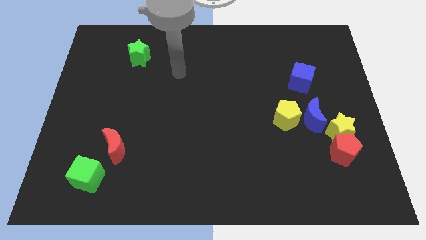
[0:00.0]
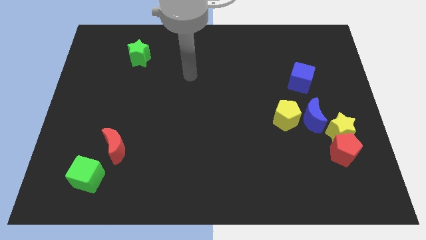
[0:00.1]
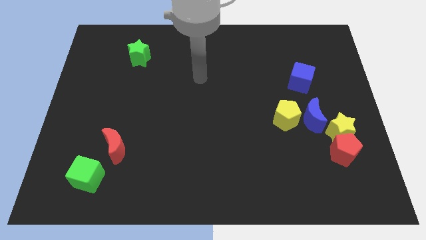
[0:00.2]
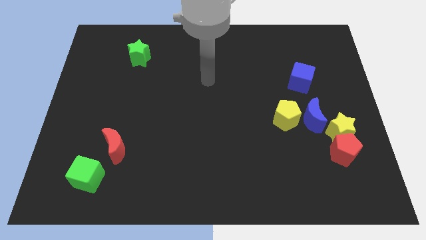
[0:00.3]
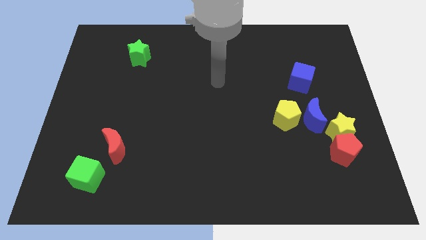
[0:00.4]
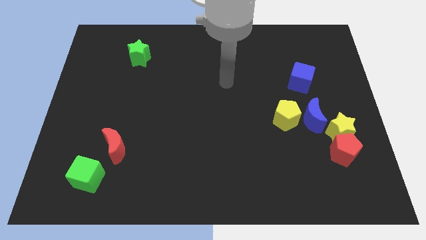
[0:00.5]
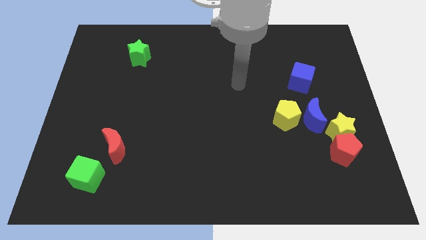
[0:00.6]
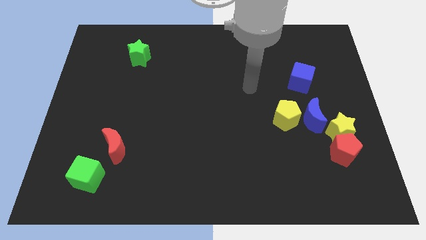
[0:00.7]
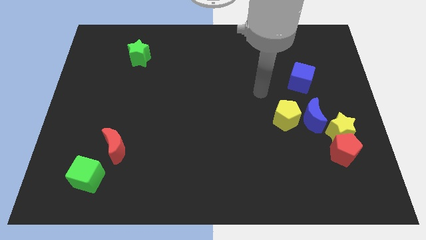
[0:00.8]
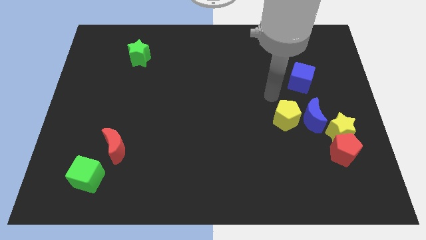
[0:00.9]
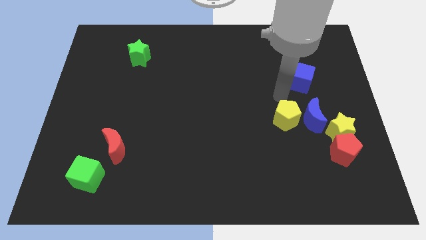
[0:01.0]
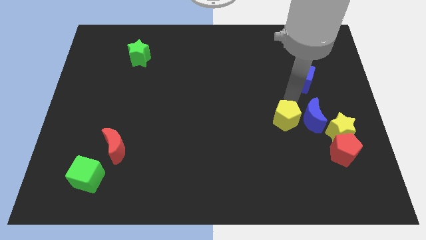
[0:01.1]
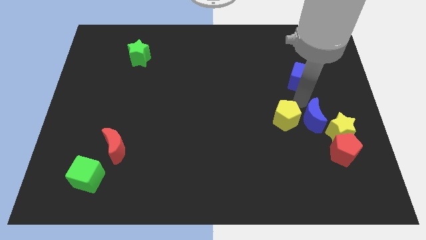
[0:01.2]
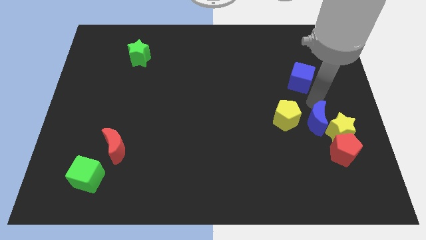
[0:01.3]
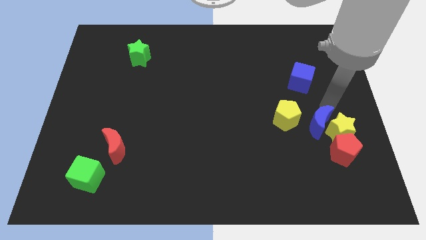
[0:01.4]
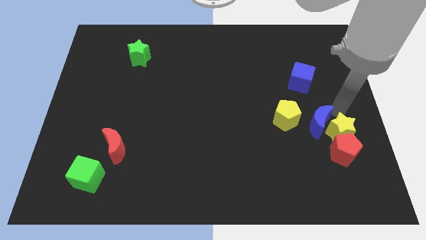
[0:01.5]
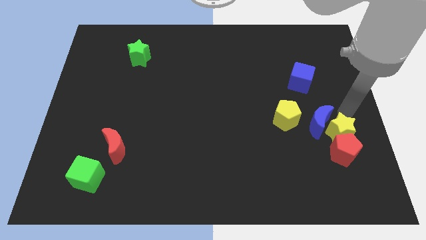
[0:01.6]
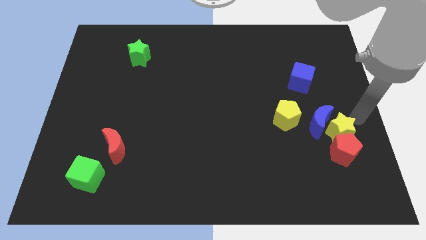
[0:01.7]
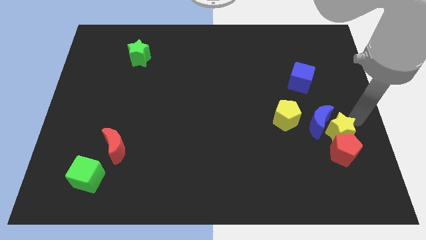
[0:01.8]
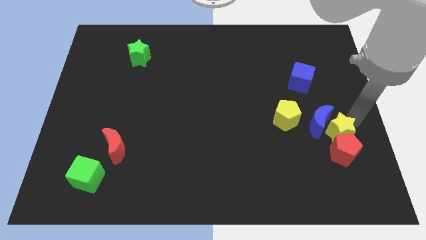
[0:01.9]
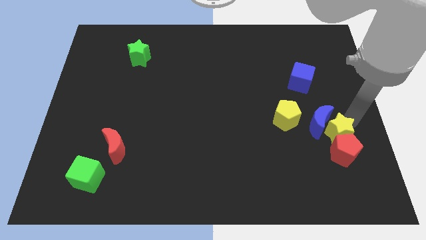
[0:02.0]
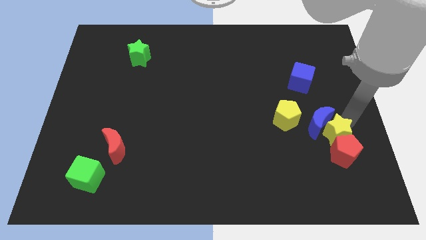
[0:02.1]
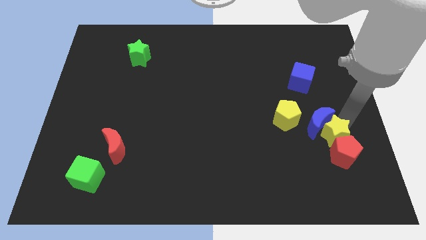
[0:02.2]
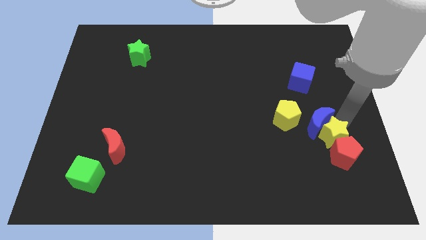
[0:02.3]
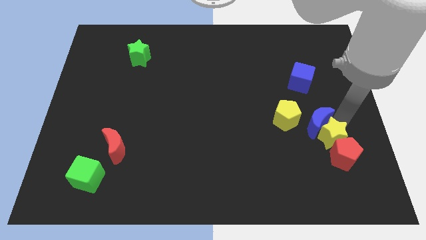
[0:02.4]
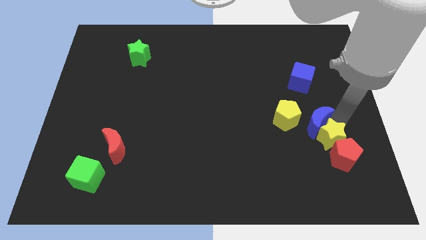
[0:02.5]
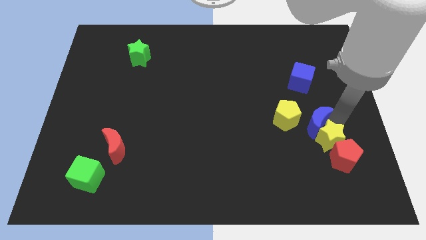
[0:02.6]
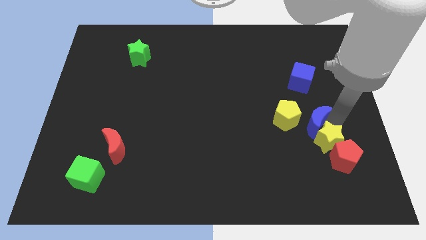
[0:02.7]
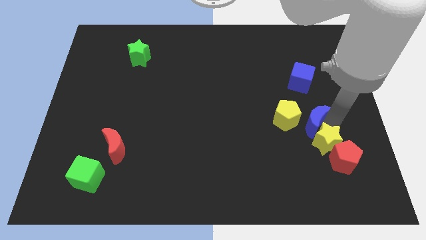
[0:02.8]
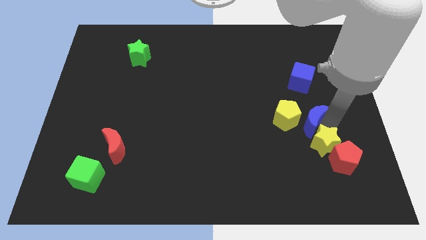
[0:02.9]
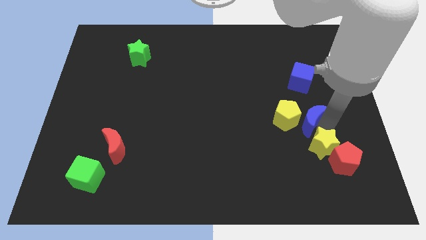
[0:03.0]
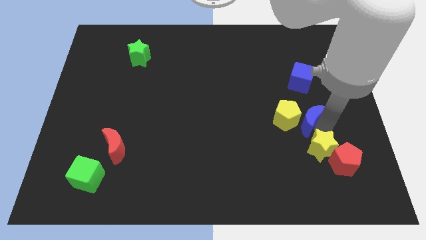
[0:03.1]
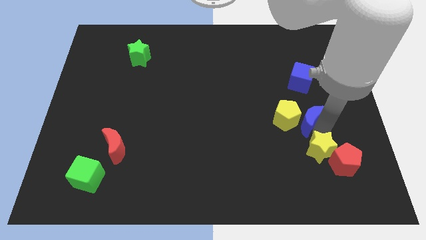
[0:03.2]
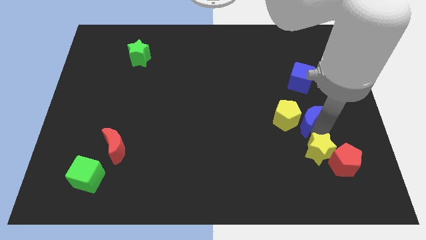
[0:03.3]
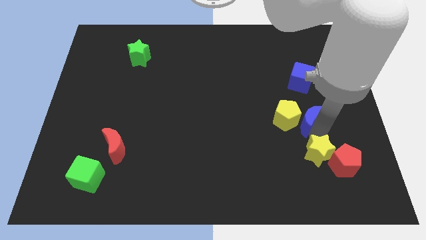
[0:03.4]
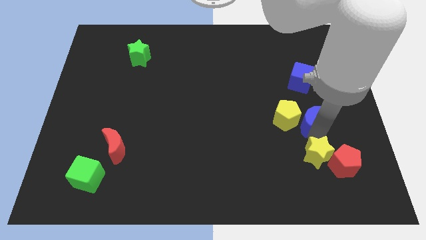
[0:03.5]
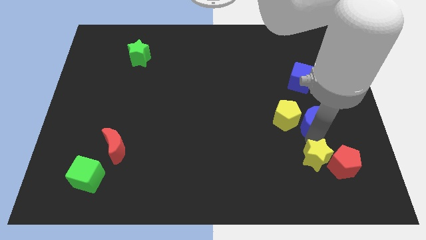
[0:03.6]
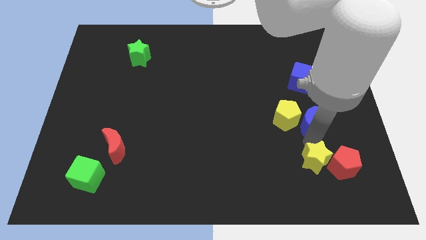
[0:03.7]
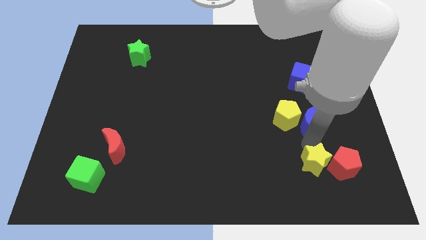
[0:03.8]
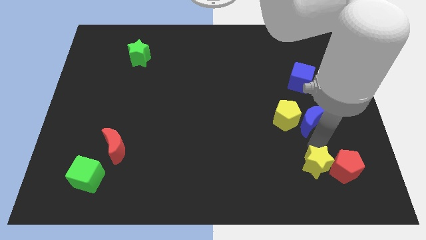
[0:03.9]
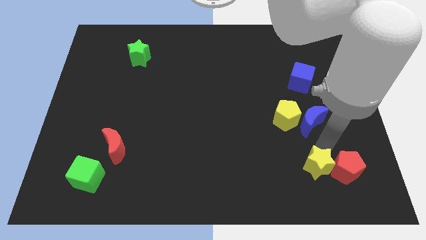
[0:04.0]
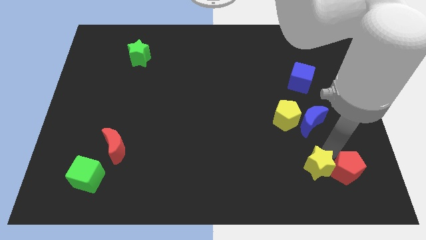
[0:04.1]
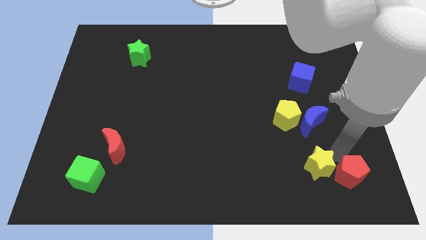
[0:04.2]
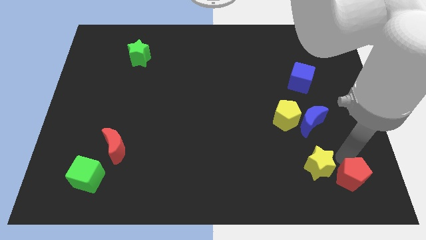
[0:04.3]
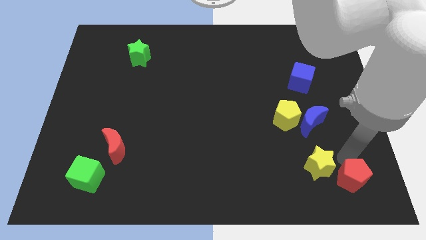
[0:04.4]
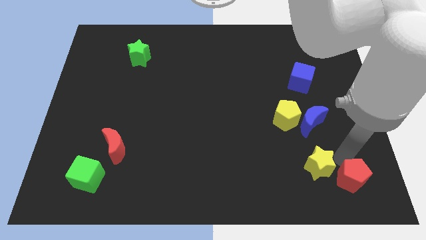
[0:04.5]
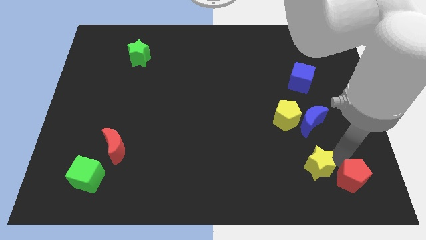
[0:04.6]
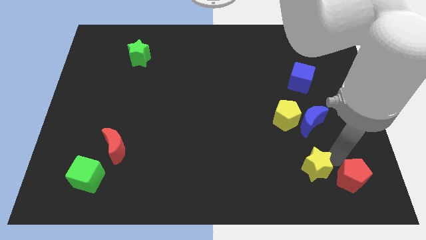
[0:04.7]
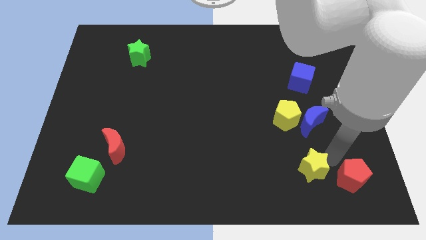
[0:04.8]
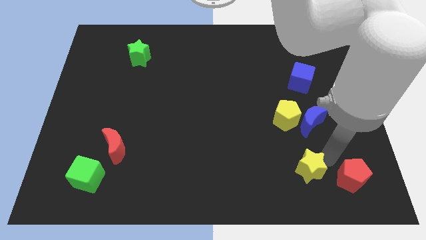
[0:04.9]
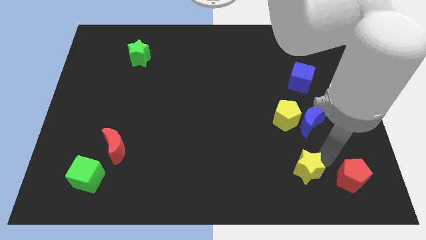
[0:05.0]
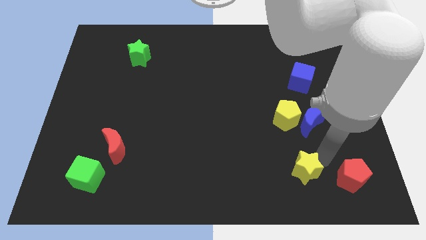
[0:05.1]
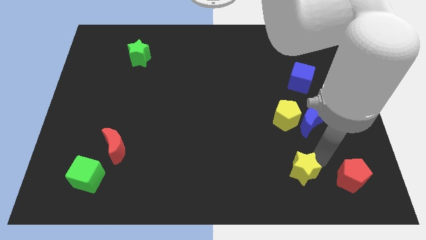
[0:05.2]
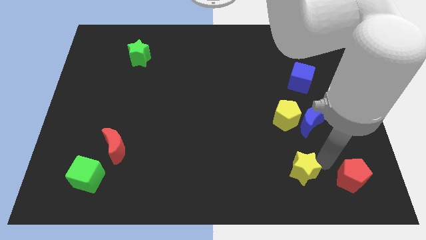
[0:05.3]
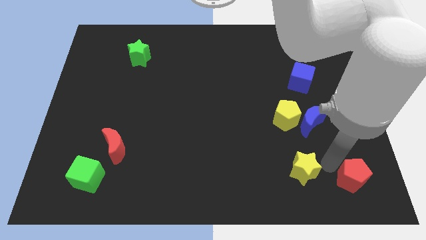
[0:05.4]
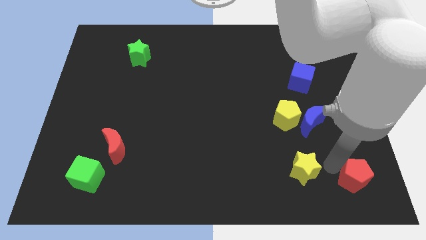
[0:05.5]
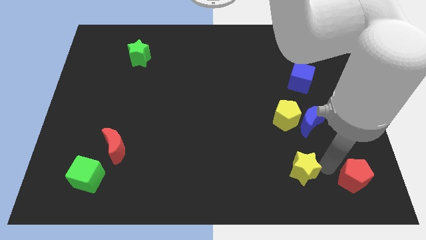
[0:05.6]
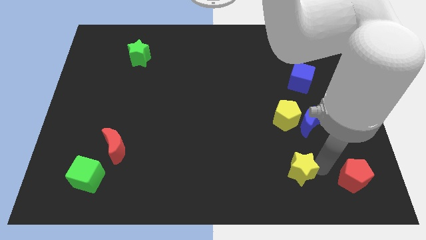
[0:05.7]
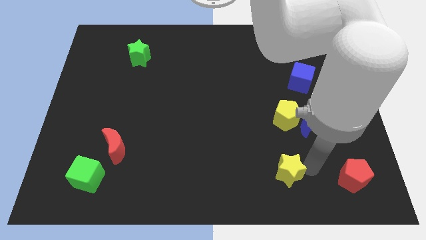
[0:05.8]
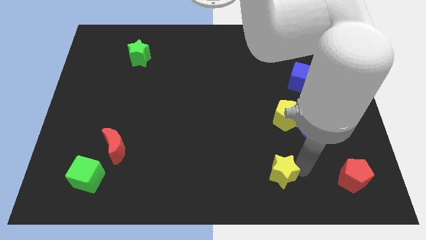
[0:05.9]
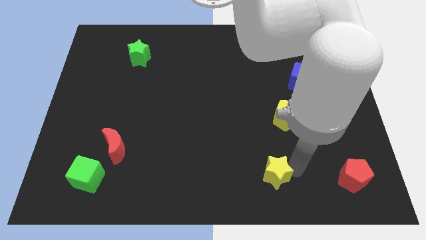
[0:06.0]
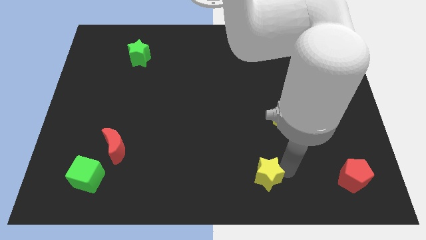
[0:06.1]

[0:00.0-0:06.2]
push the yellow star to the bottom

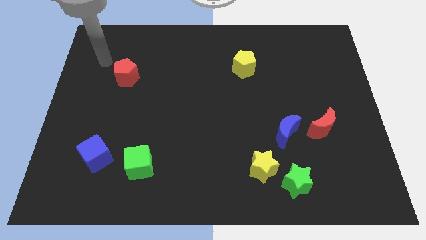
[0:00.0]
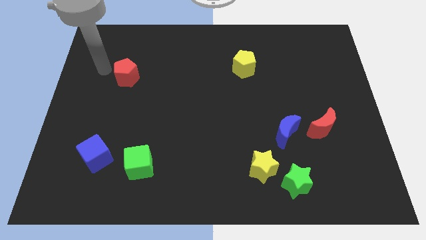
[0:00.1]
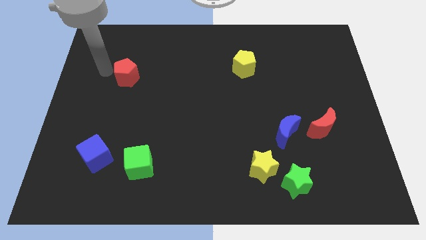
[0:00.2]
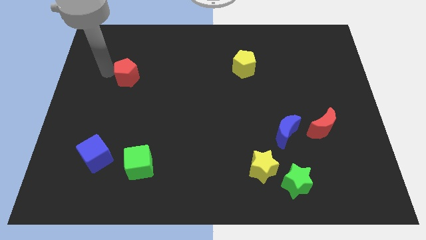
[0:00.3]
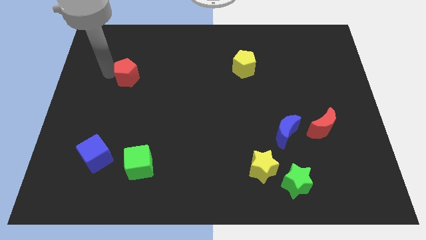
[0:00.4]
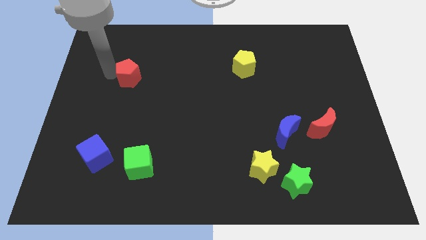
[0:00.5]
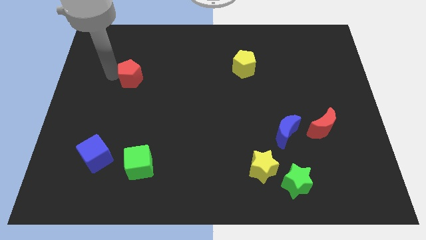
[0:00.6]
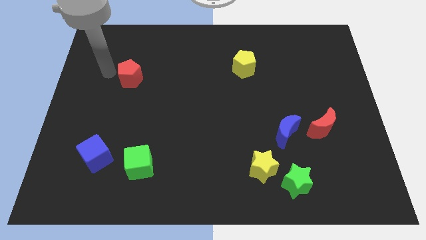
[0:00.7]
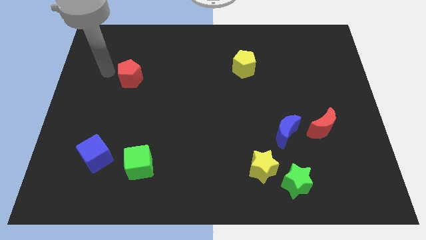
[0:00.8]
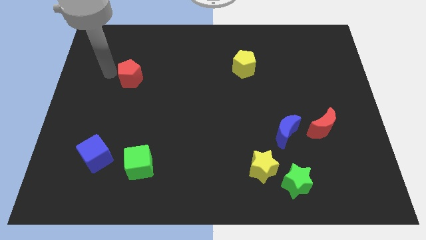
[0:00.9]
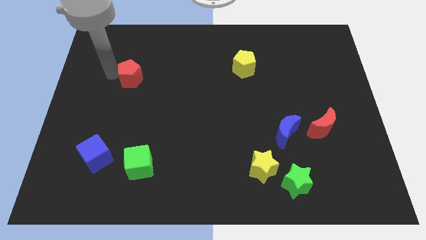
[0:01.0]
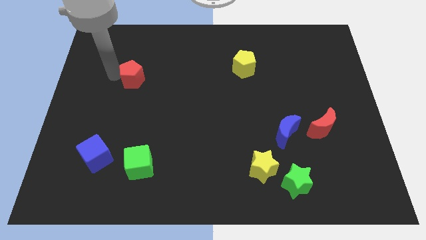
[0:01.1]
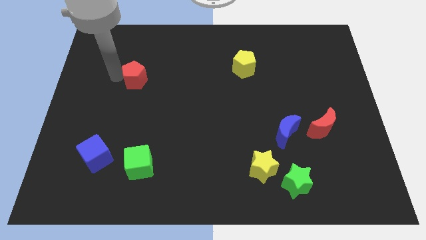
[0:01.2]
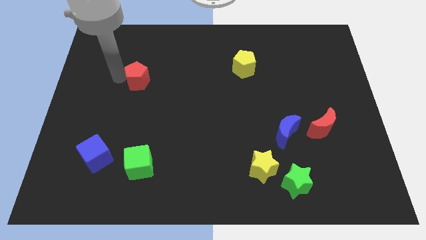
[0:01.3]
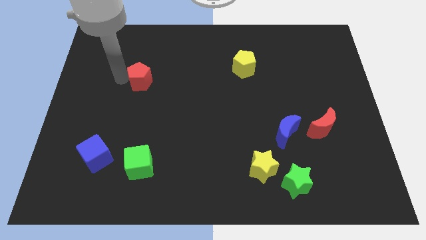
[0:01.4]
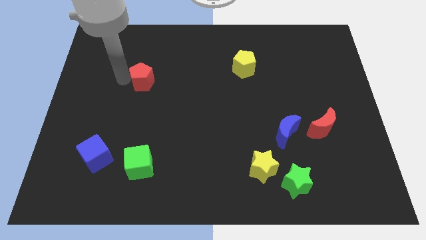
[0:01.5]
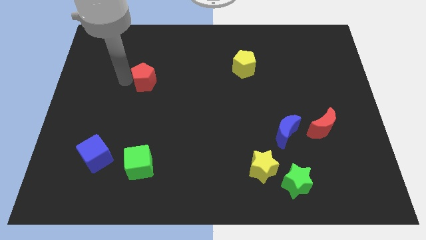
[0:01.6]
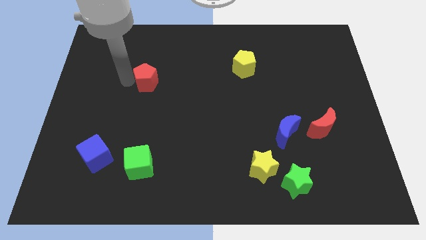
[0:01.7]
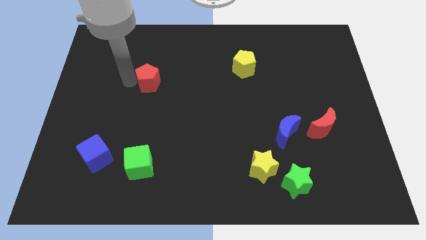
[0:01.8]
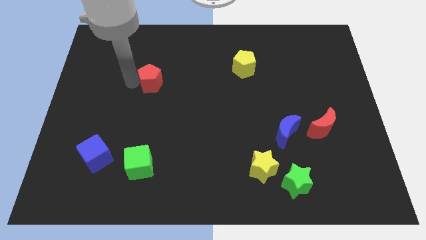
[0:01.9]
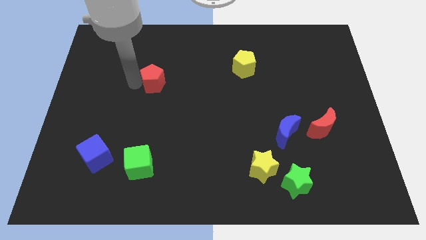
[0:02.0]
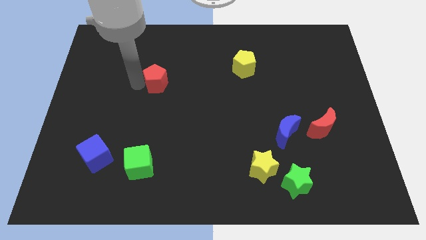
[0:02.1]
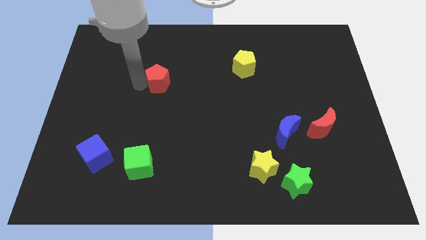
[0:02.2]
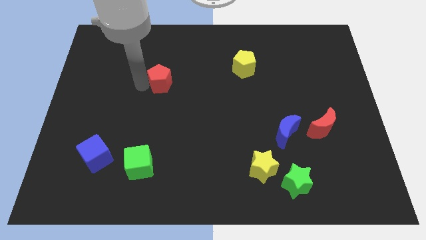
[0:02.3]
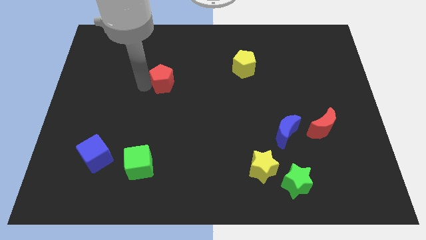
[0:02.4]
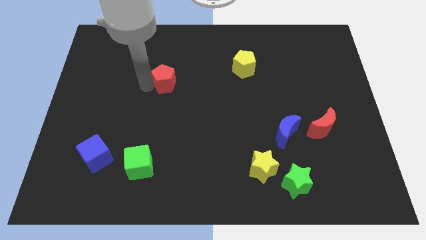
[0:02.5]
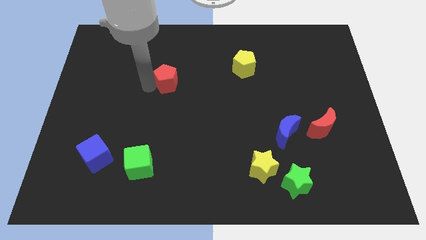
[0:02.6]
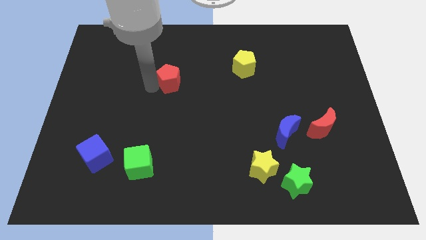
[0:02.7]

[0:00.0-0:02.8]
slide the red pentagon to the center of the board
